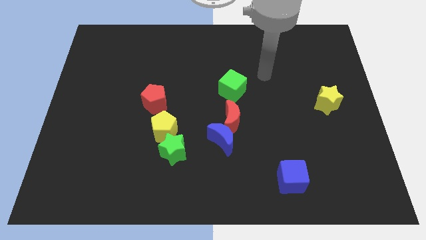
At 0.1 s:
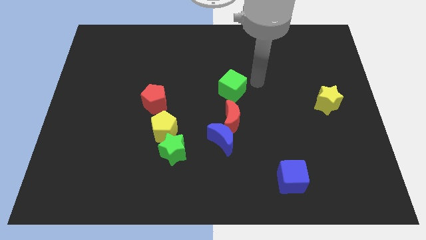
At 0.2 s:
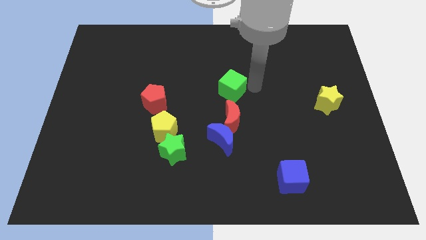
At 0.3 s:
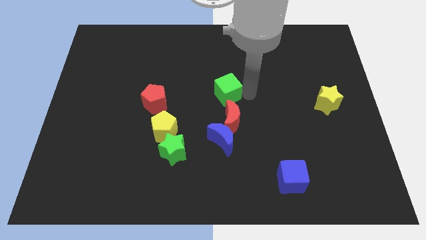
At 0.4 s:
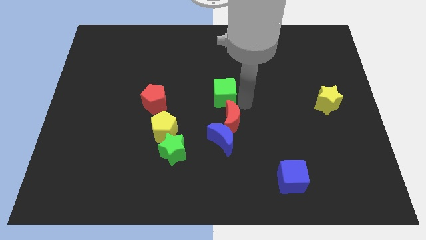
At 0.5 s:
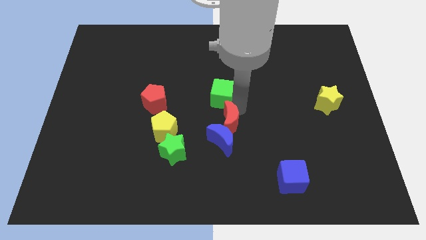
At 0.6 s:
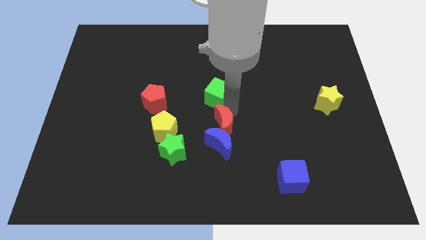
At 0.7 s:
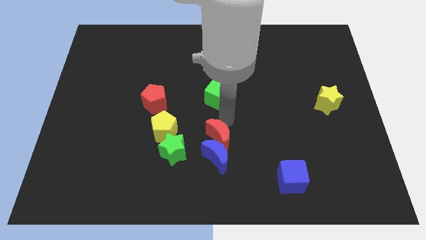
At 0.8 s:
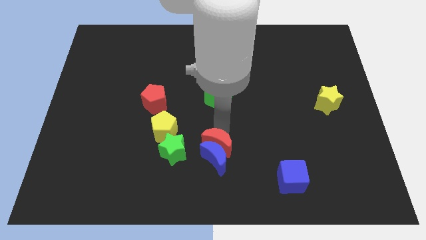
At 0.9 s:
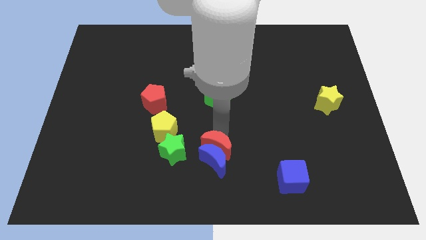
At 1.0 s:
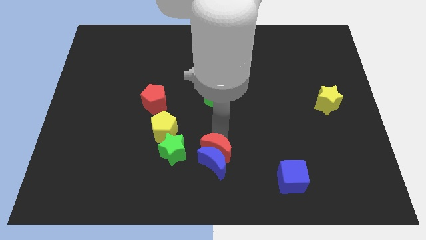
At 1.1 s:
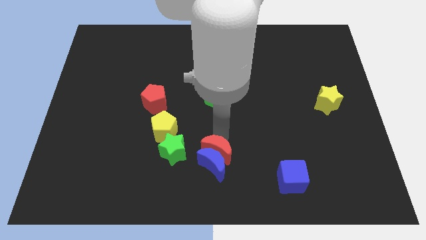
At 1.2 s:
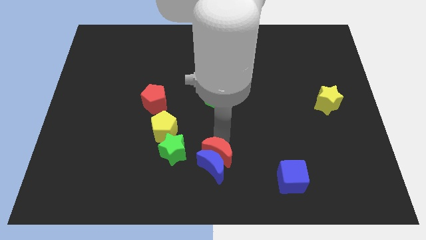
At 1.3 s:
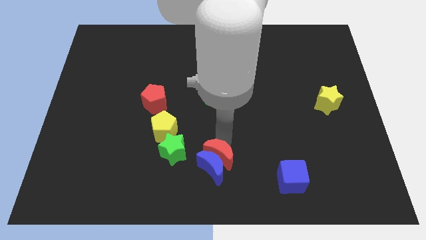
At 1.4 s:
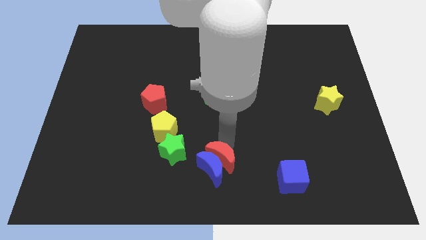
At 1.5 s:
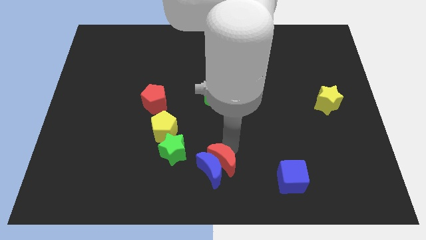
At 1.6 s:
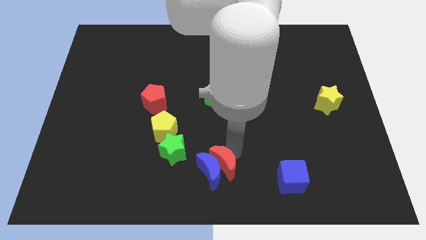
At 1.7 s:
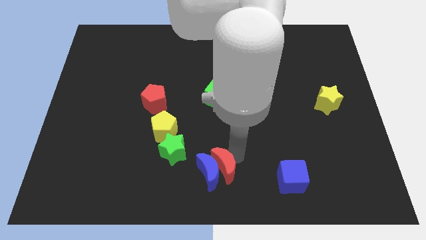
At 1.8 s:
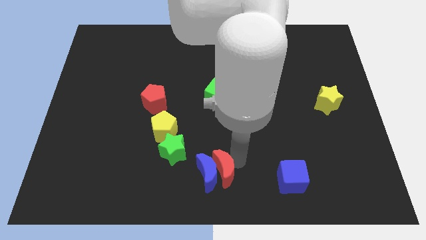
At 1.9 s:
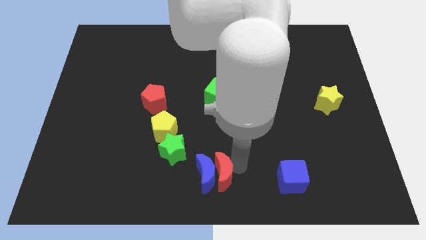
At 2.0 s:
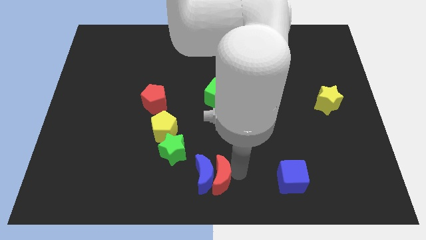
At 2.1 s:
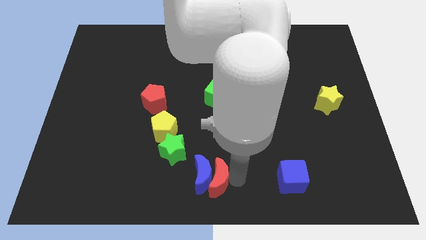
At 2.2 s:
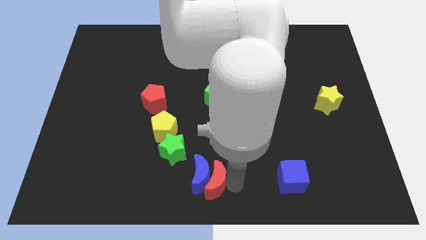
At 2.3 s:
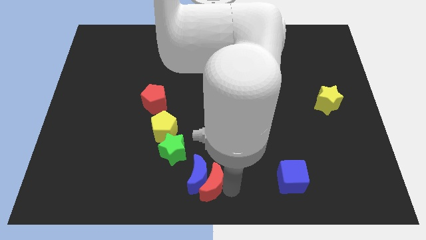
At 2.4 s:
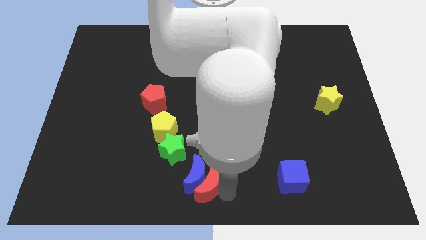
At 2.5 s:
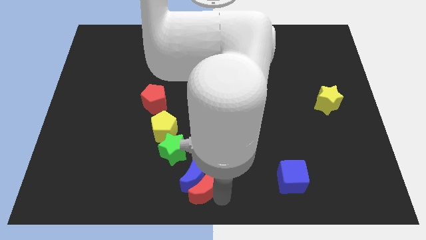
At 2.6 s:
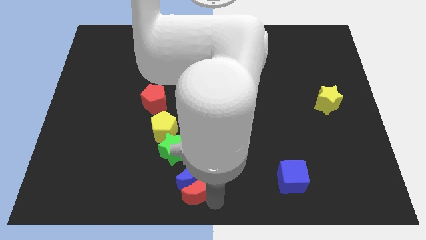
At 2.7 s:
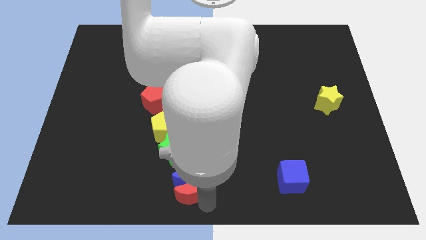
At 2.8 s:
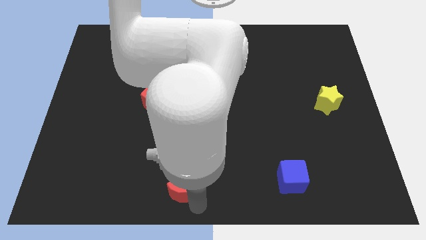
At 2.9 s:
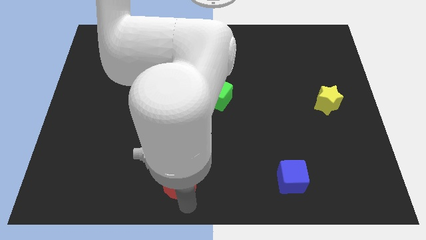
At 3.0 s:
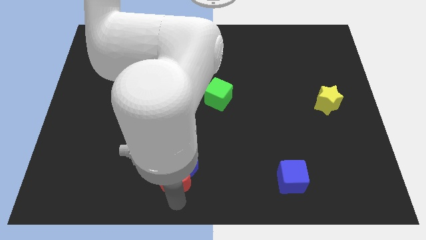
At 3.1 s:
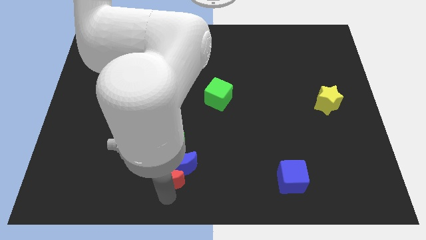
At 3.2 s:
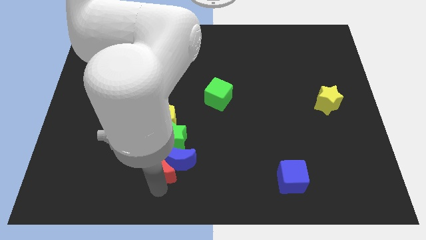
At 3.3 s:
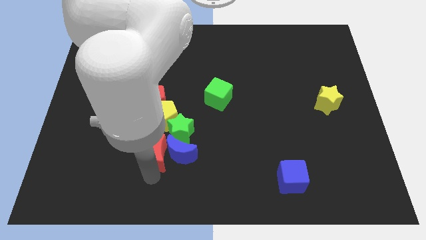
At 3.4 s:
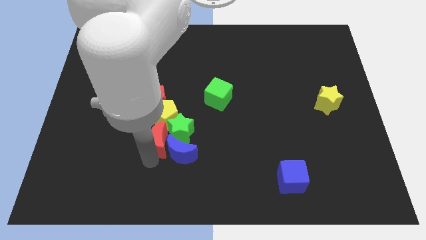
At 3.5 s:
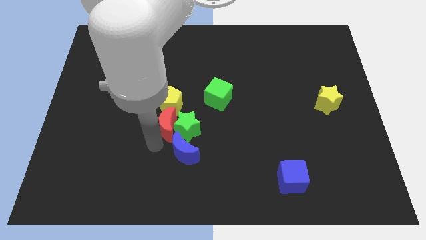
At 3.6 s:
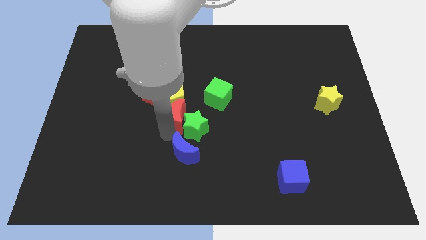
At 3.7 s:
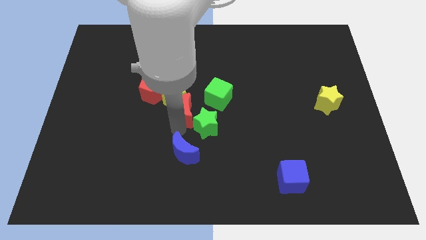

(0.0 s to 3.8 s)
pull the blue moon apart from the red moon

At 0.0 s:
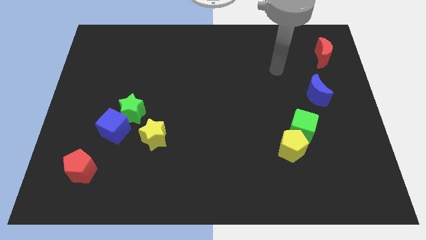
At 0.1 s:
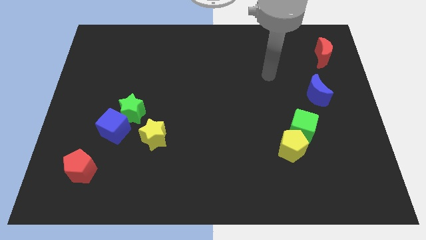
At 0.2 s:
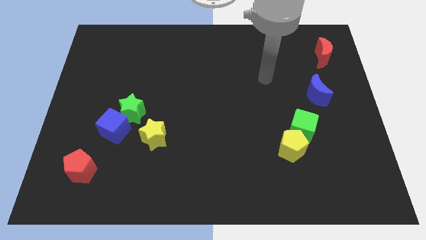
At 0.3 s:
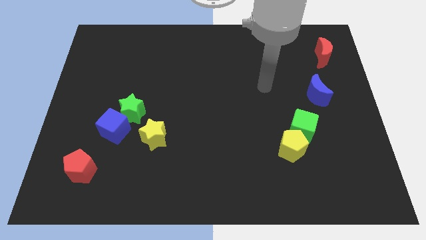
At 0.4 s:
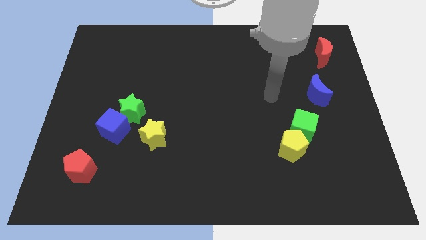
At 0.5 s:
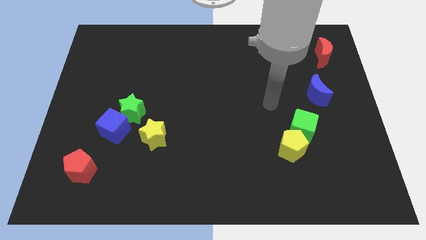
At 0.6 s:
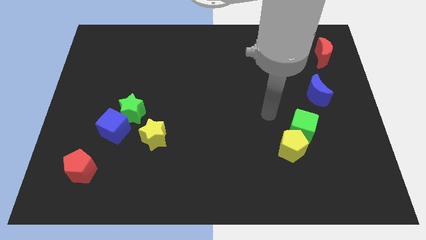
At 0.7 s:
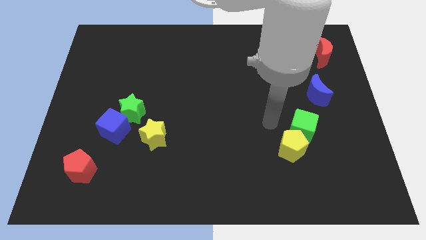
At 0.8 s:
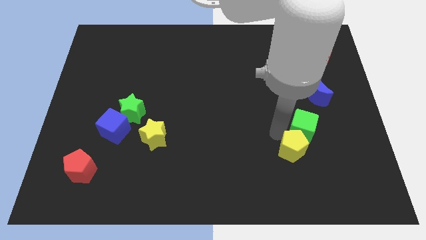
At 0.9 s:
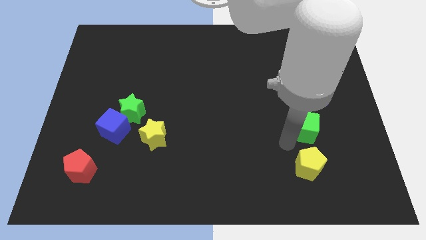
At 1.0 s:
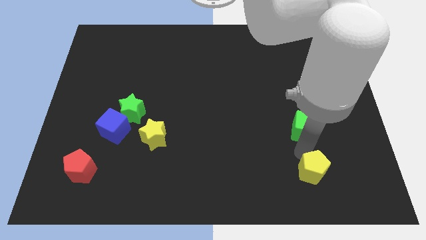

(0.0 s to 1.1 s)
move the green cube away from the yellow pentagon

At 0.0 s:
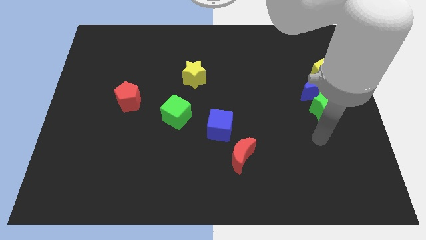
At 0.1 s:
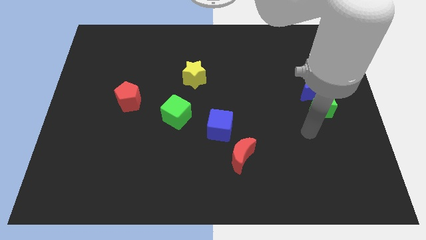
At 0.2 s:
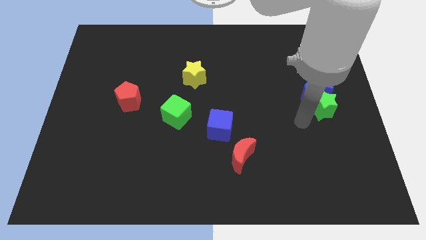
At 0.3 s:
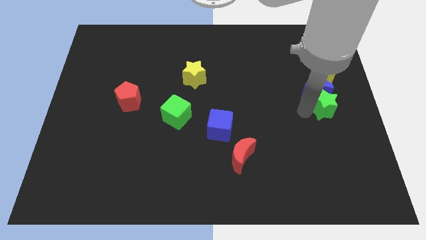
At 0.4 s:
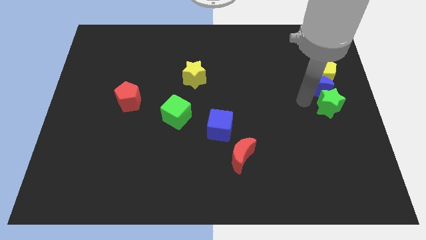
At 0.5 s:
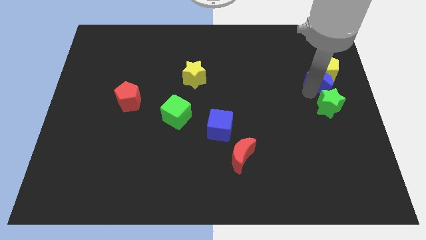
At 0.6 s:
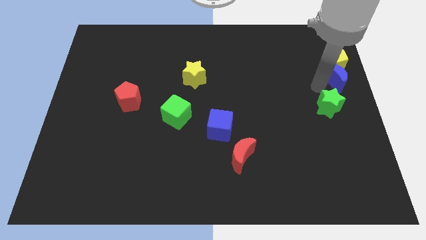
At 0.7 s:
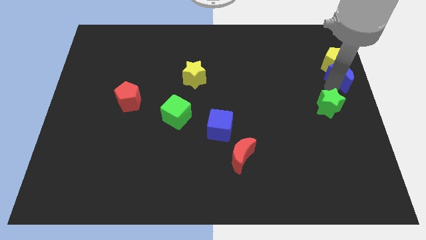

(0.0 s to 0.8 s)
move the green star away from the blue moon

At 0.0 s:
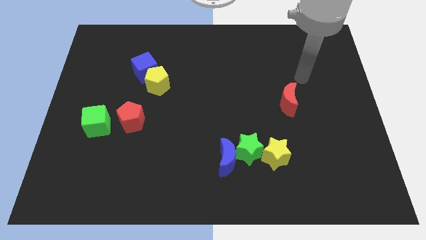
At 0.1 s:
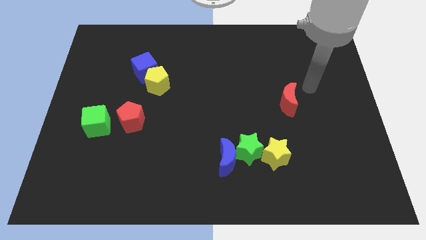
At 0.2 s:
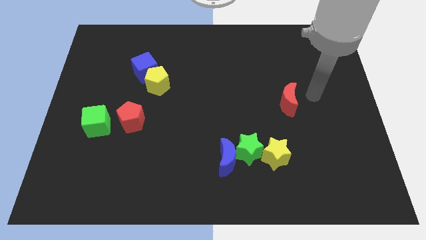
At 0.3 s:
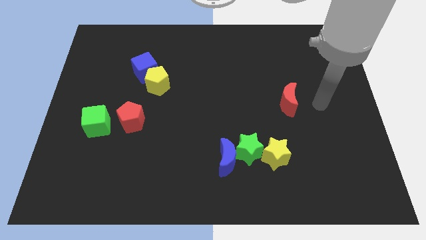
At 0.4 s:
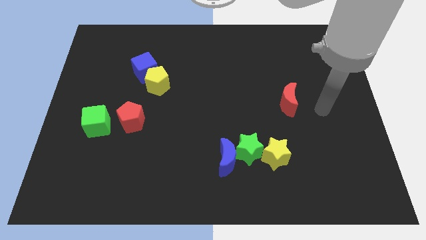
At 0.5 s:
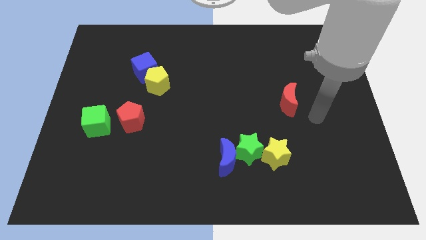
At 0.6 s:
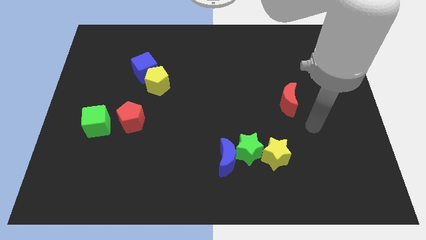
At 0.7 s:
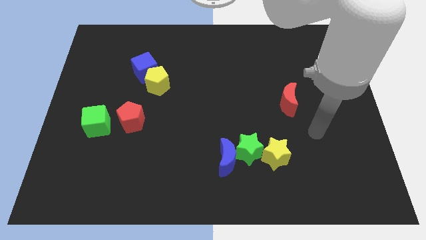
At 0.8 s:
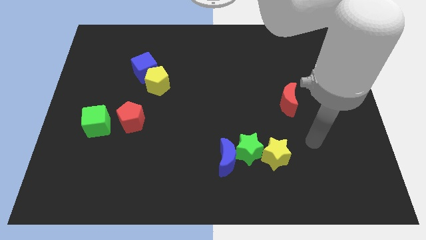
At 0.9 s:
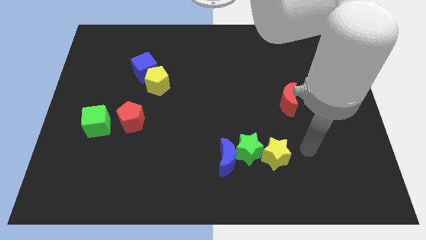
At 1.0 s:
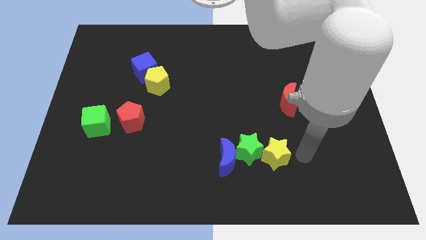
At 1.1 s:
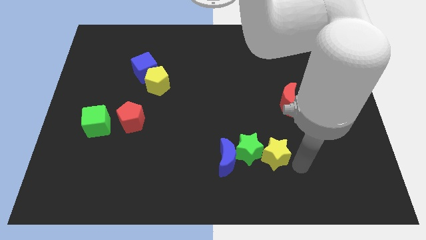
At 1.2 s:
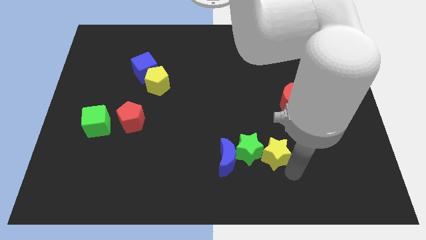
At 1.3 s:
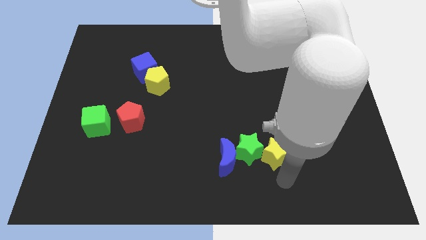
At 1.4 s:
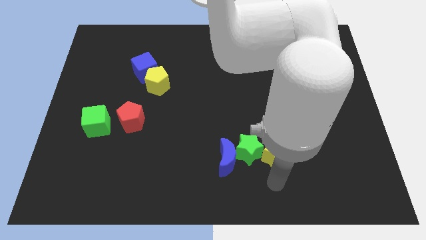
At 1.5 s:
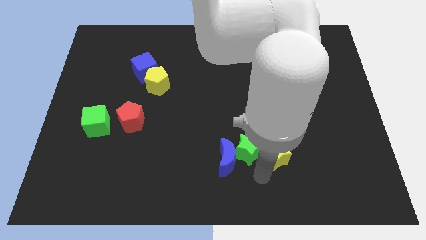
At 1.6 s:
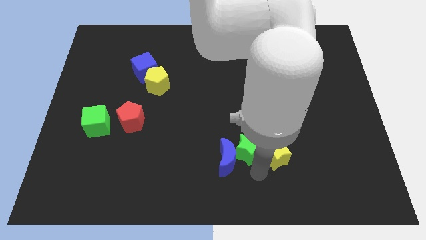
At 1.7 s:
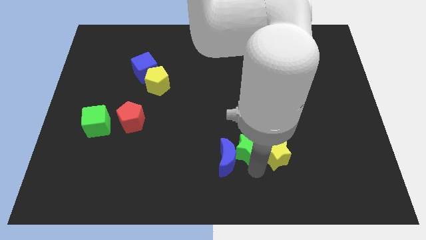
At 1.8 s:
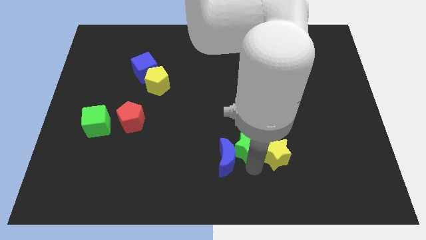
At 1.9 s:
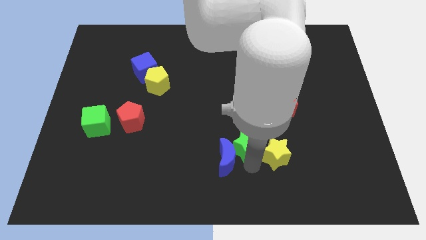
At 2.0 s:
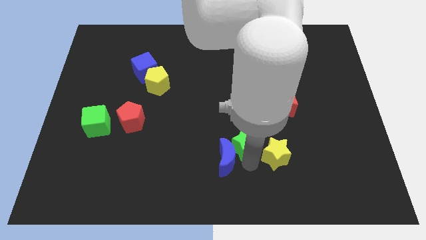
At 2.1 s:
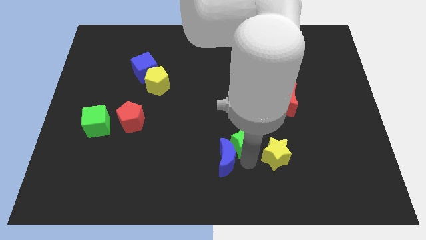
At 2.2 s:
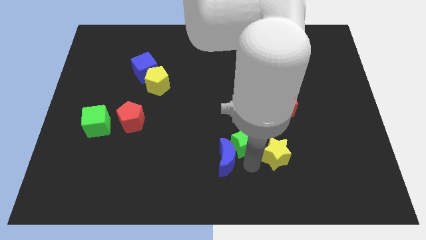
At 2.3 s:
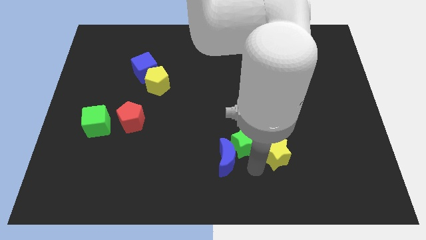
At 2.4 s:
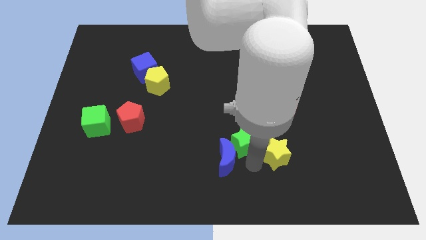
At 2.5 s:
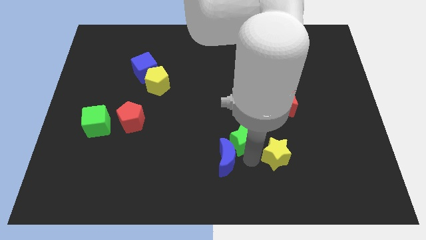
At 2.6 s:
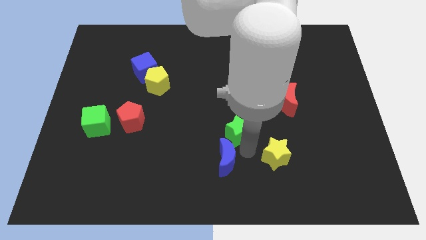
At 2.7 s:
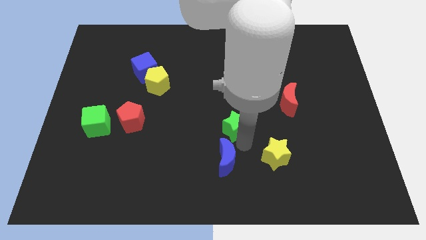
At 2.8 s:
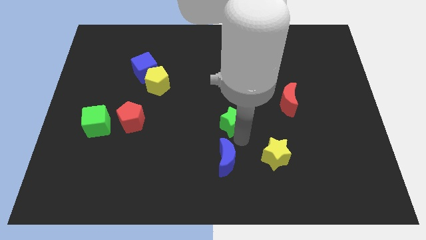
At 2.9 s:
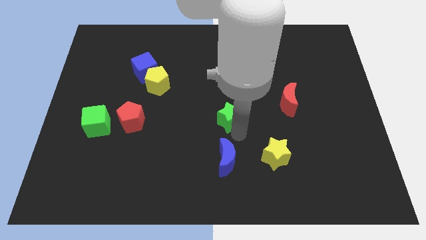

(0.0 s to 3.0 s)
move the green star away from the blue moon and yellow star

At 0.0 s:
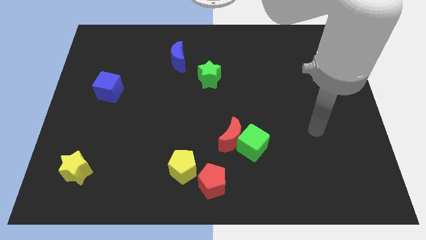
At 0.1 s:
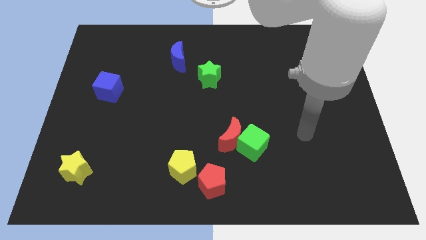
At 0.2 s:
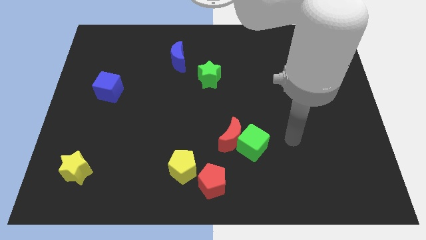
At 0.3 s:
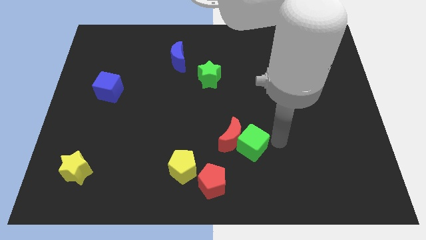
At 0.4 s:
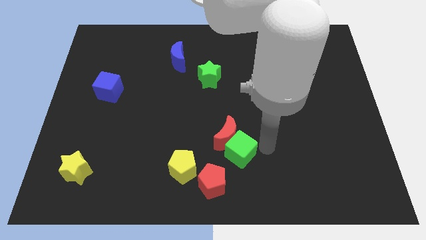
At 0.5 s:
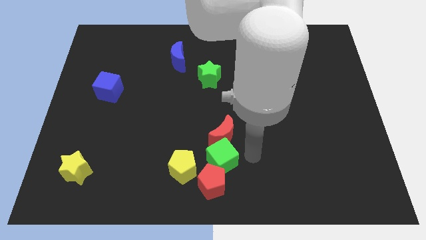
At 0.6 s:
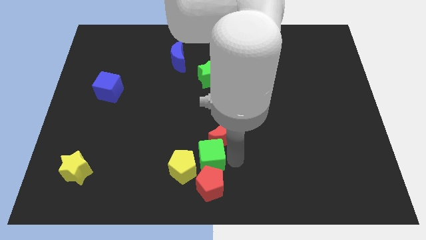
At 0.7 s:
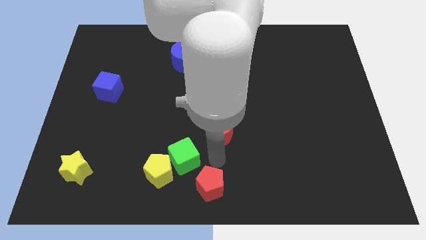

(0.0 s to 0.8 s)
move the red moon away from the green cube
